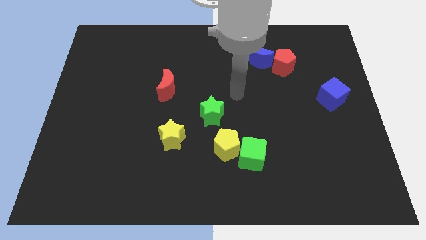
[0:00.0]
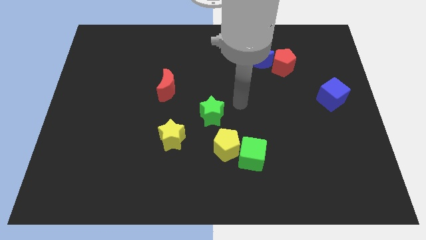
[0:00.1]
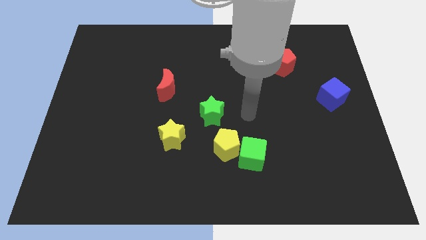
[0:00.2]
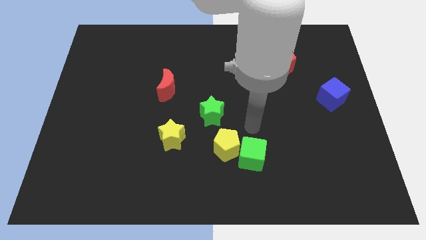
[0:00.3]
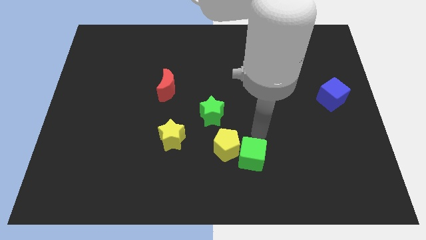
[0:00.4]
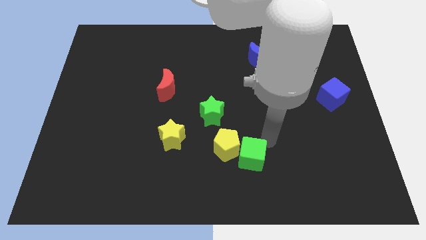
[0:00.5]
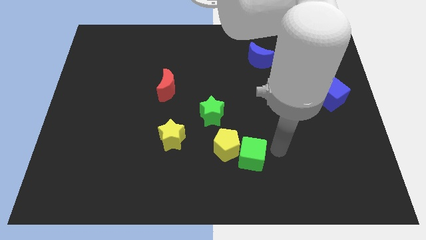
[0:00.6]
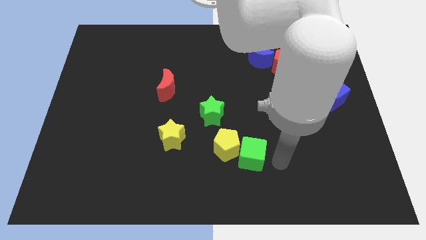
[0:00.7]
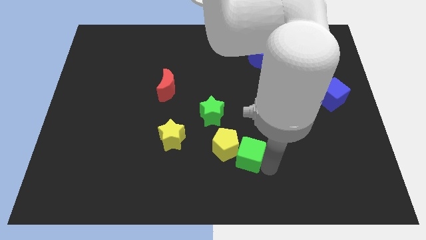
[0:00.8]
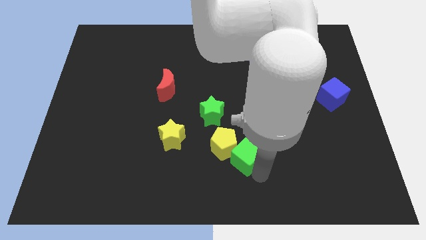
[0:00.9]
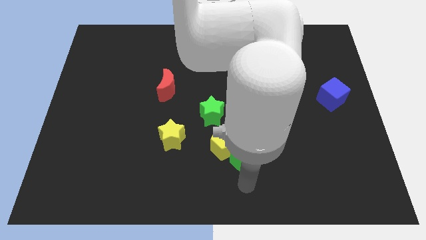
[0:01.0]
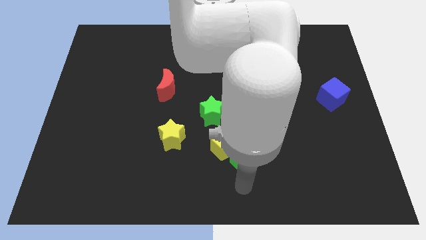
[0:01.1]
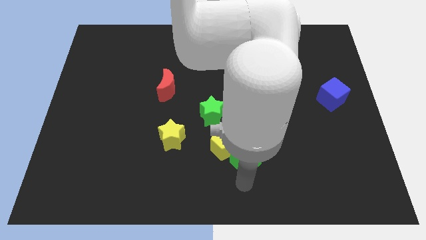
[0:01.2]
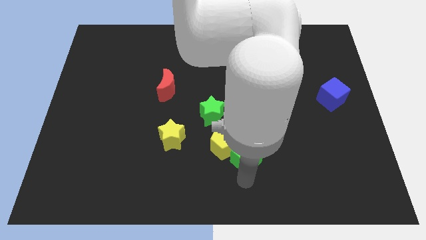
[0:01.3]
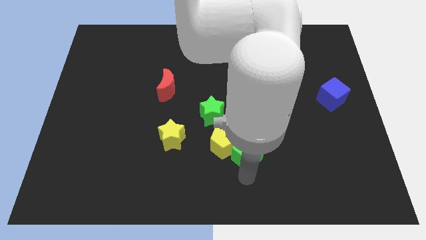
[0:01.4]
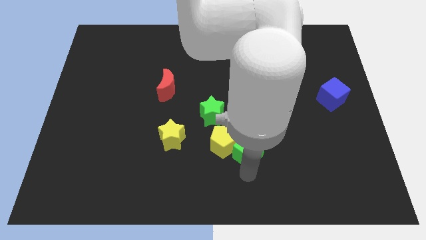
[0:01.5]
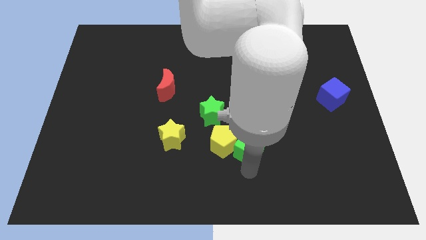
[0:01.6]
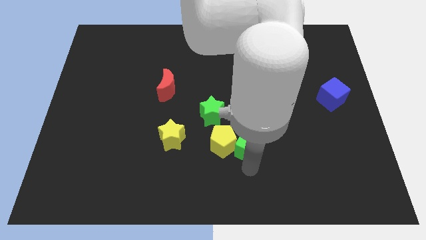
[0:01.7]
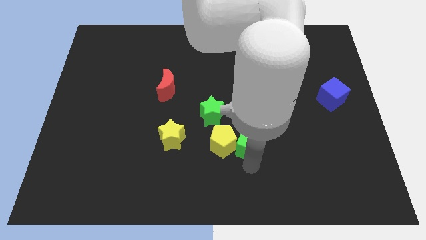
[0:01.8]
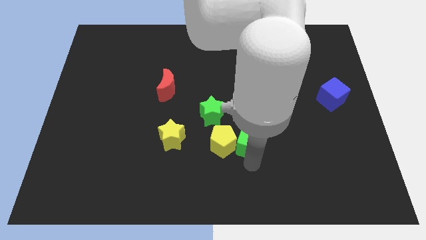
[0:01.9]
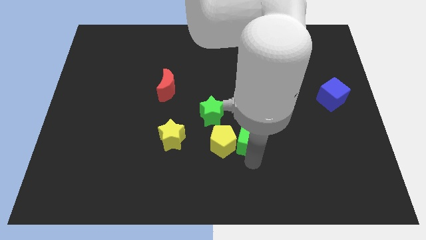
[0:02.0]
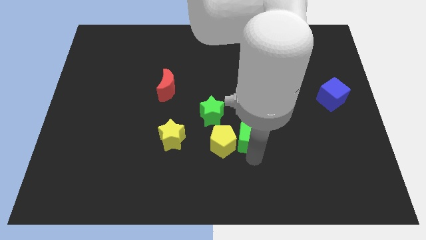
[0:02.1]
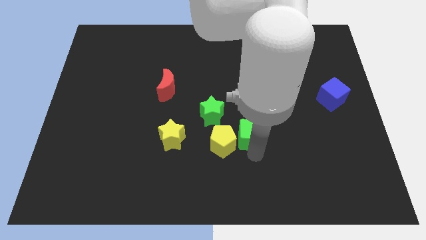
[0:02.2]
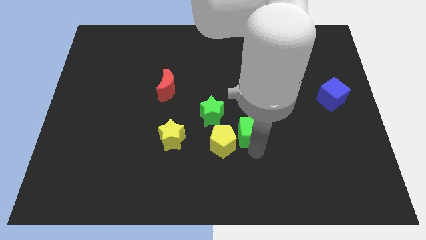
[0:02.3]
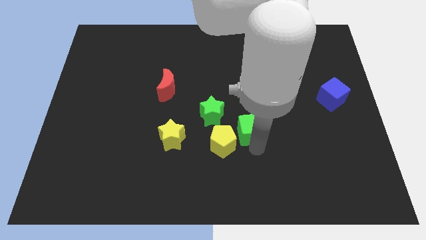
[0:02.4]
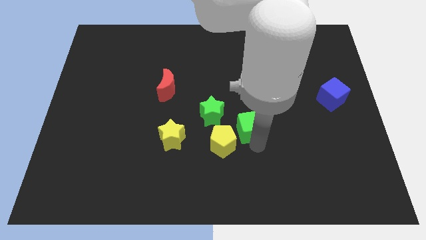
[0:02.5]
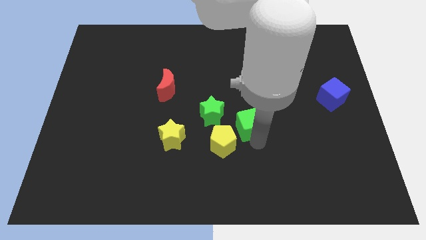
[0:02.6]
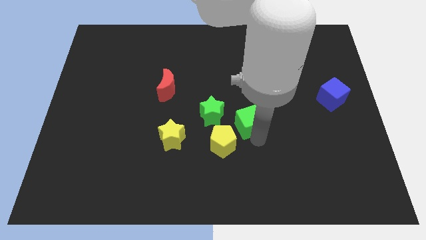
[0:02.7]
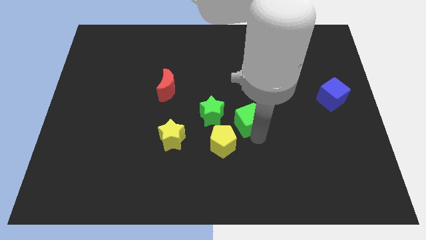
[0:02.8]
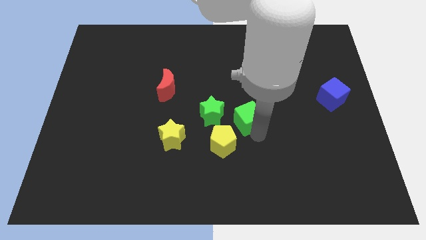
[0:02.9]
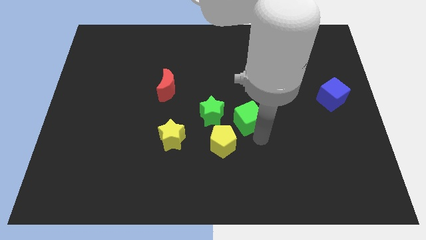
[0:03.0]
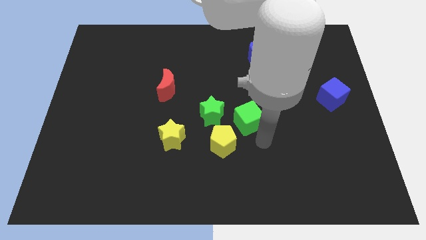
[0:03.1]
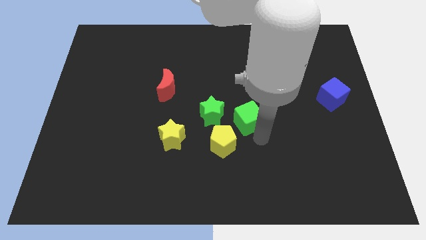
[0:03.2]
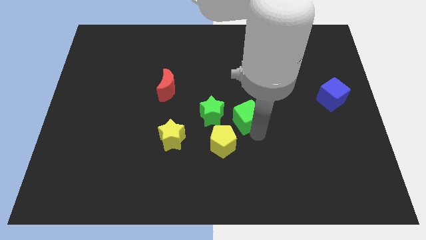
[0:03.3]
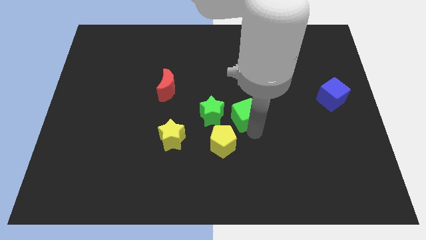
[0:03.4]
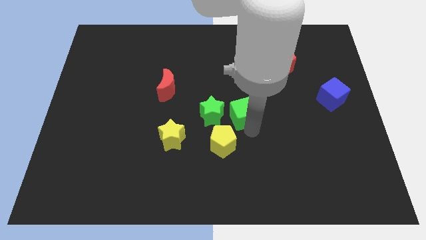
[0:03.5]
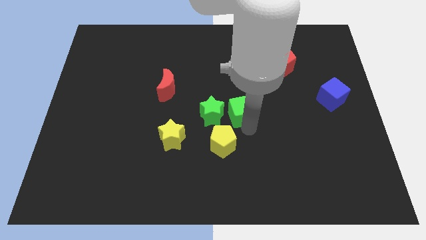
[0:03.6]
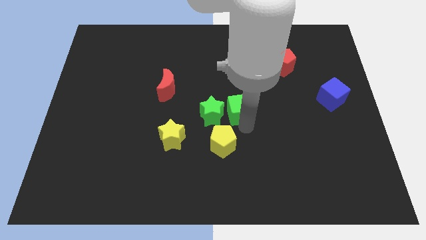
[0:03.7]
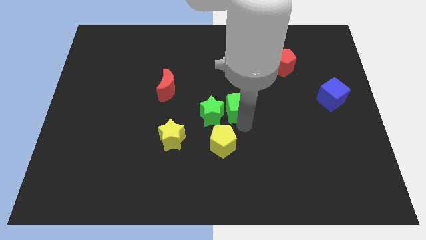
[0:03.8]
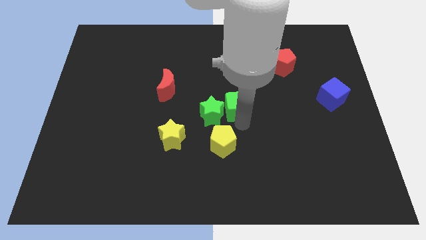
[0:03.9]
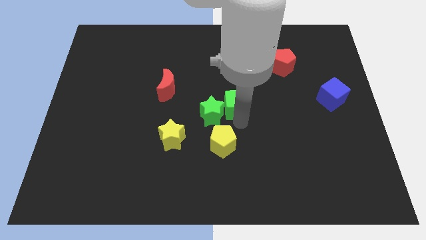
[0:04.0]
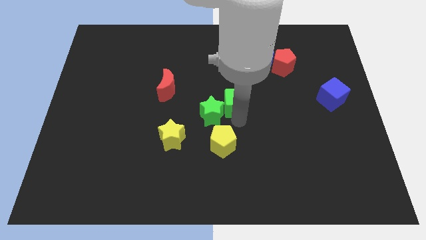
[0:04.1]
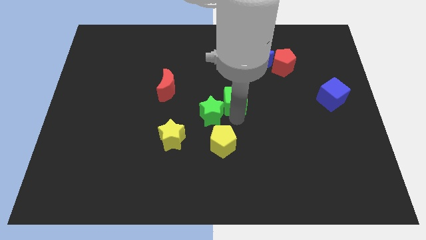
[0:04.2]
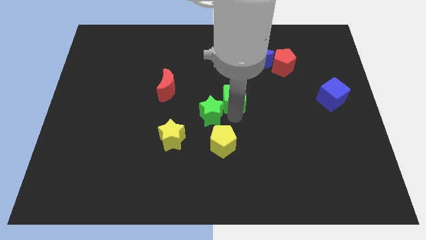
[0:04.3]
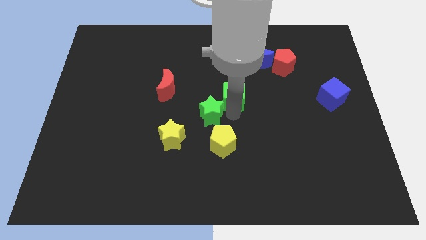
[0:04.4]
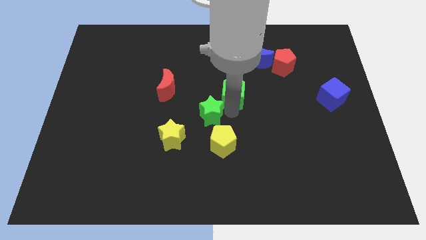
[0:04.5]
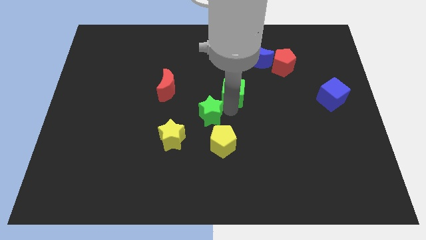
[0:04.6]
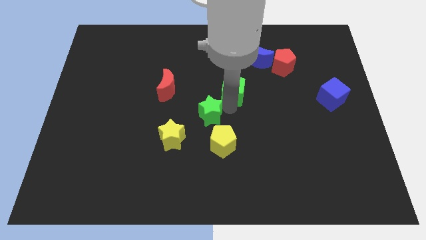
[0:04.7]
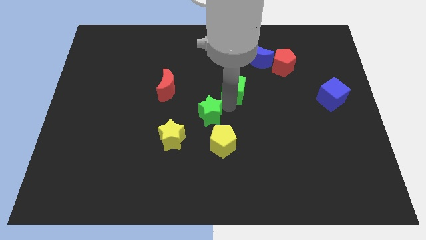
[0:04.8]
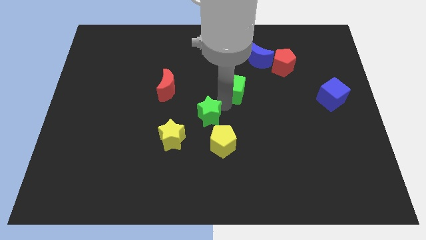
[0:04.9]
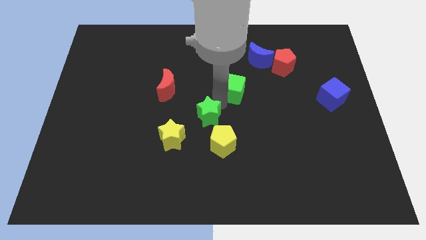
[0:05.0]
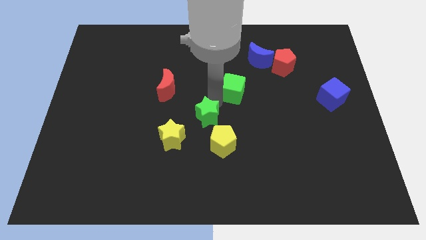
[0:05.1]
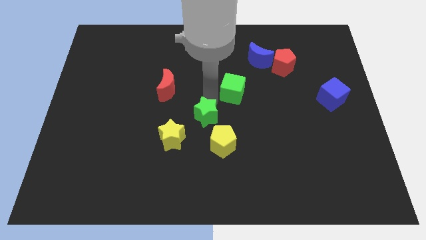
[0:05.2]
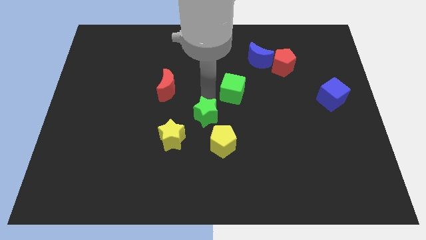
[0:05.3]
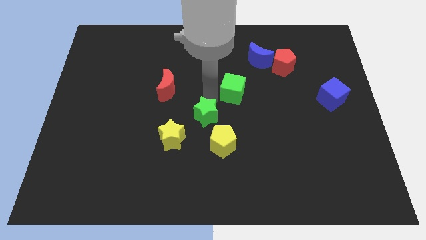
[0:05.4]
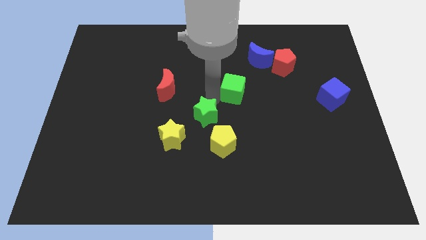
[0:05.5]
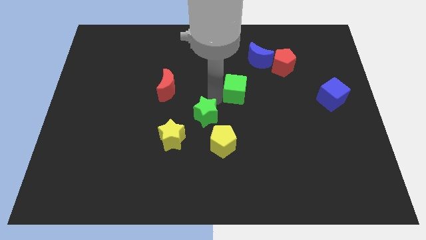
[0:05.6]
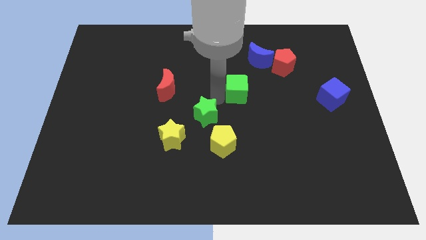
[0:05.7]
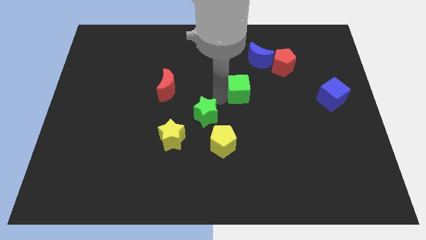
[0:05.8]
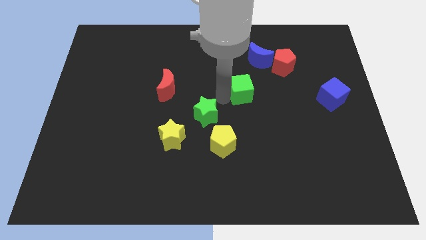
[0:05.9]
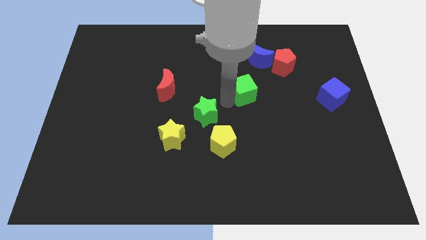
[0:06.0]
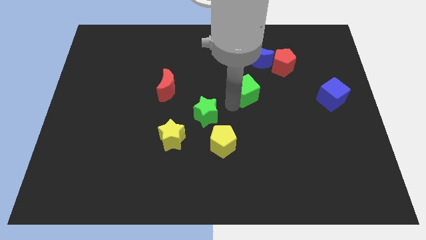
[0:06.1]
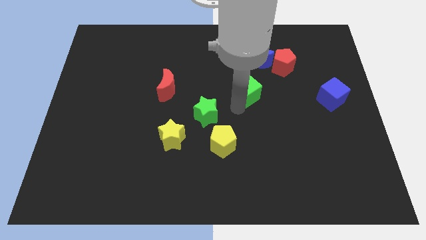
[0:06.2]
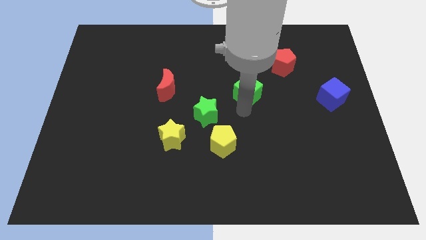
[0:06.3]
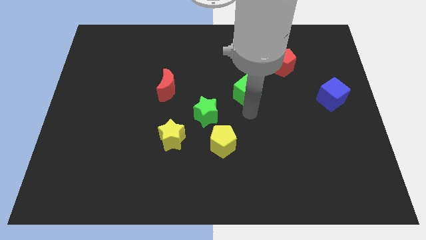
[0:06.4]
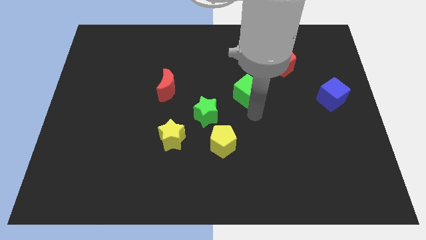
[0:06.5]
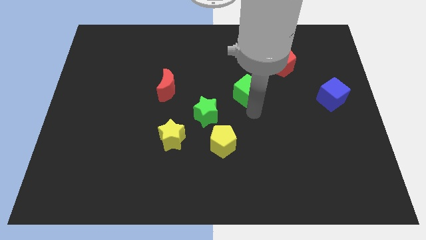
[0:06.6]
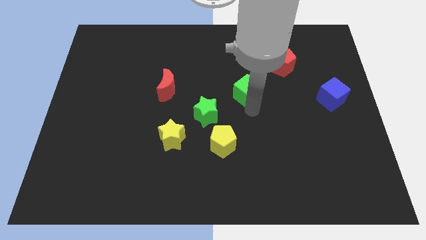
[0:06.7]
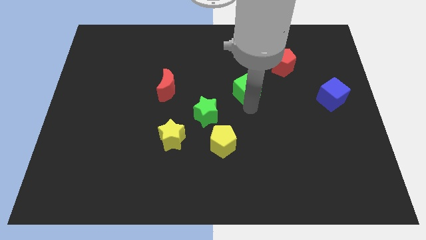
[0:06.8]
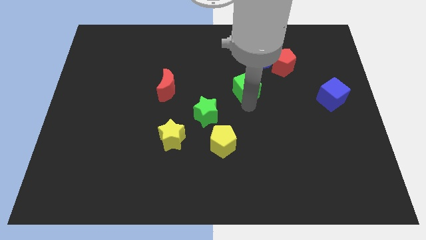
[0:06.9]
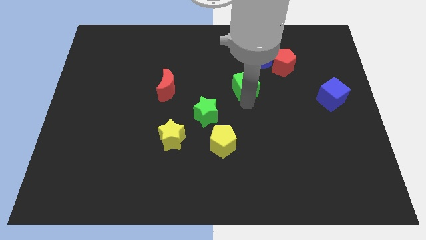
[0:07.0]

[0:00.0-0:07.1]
slide the green cube to the bottom left of the blue moon
